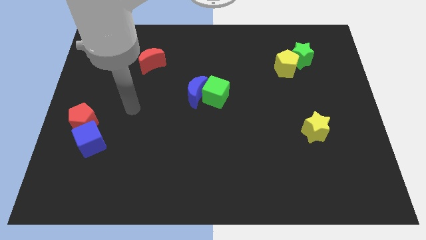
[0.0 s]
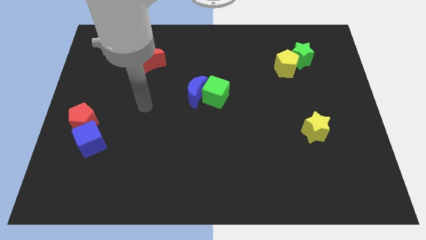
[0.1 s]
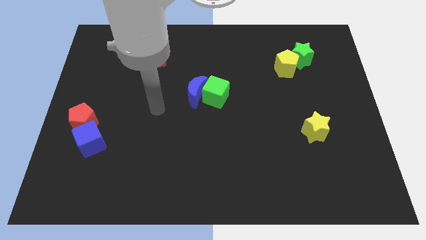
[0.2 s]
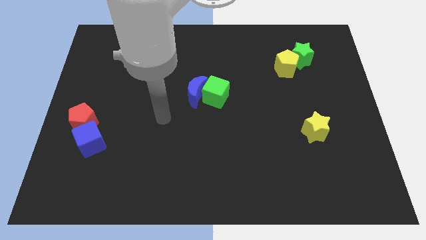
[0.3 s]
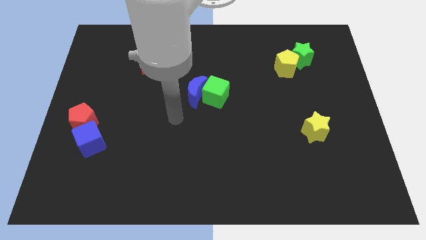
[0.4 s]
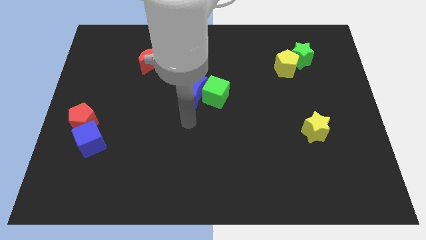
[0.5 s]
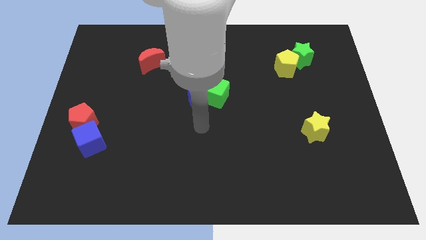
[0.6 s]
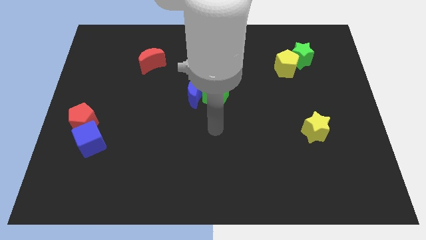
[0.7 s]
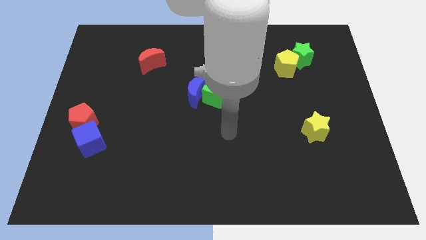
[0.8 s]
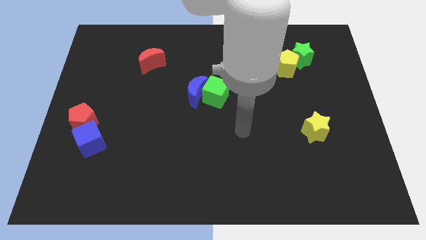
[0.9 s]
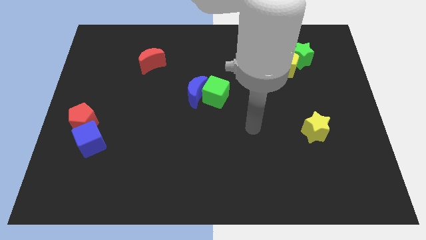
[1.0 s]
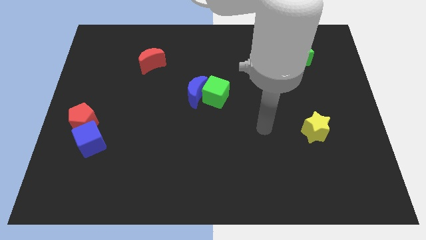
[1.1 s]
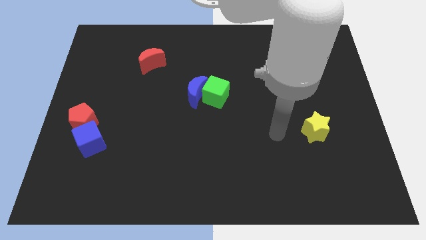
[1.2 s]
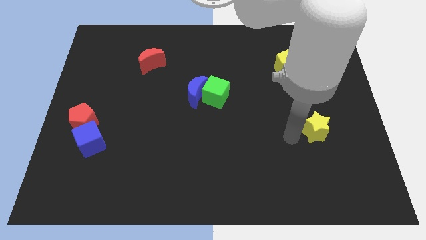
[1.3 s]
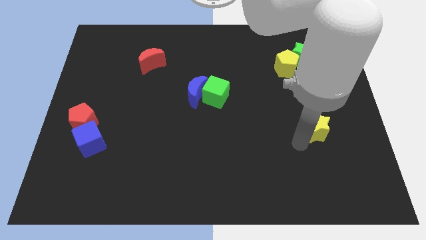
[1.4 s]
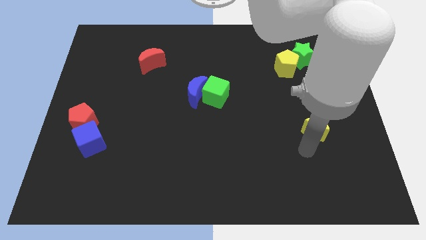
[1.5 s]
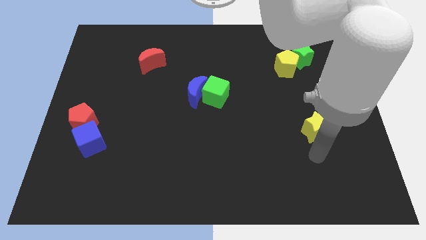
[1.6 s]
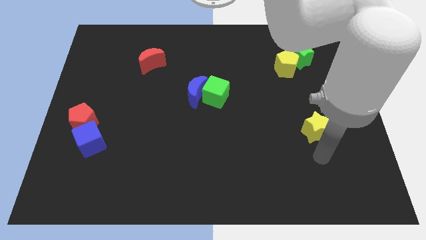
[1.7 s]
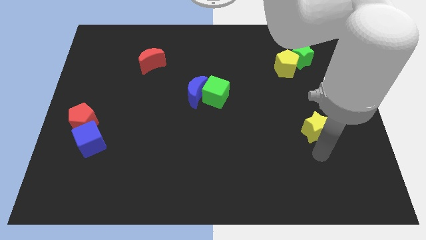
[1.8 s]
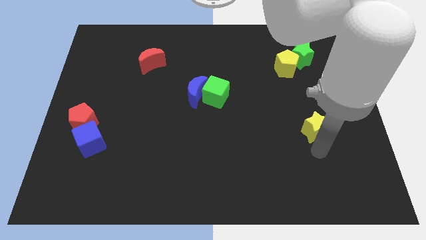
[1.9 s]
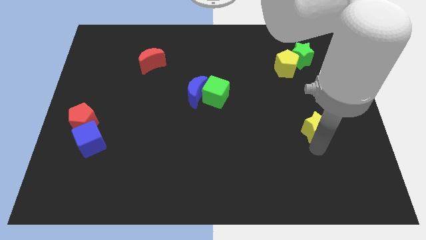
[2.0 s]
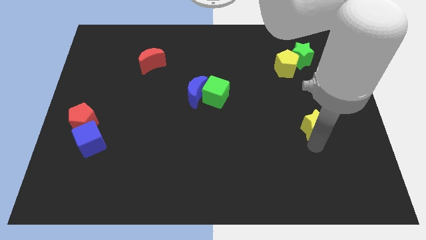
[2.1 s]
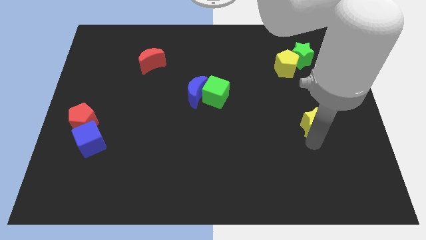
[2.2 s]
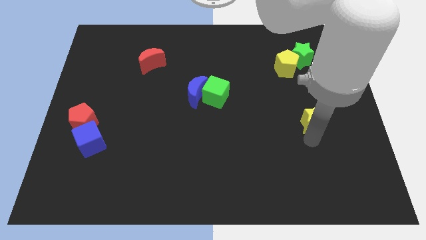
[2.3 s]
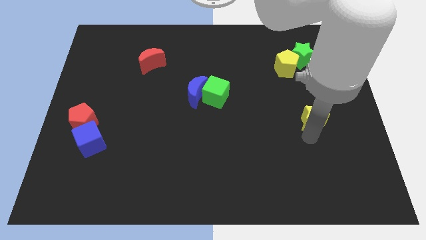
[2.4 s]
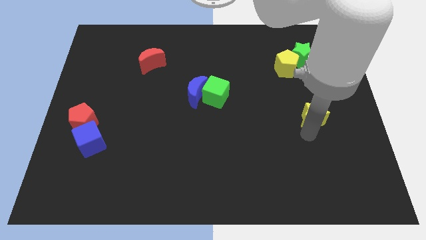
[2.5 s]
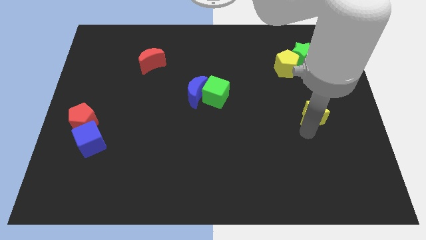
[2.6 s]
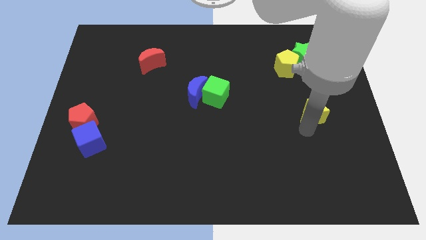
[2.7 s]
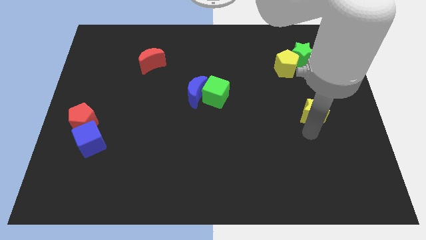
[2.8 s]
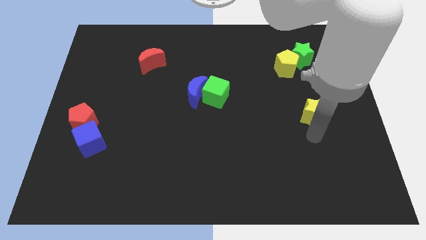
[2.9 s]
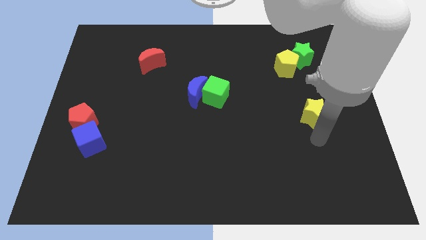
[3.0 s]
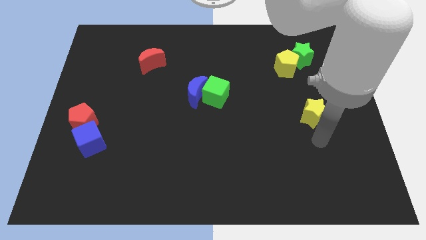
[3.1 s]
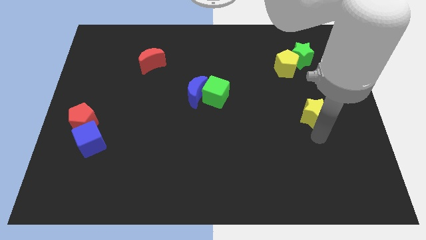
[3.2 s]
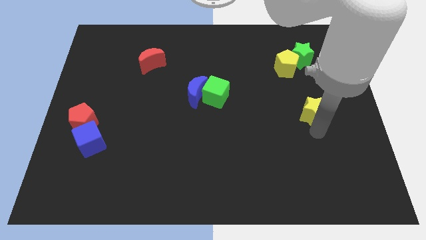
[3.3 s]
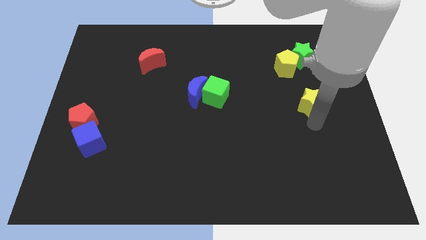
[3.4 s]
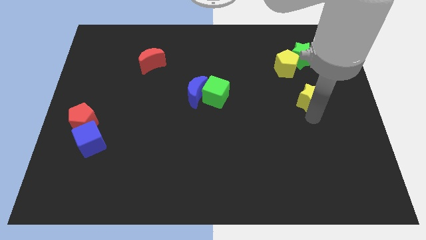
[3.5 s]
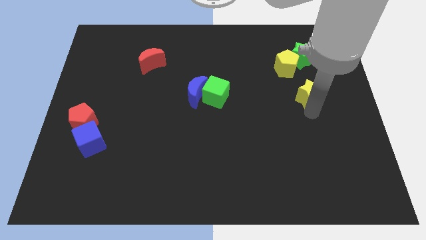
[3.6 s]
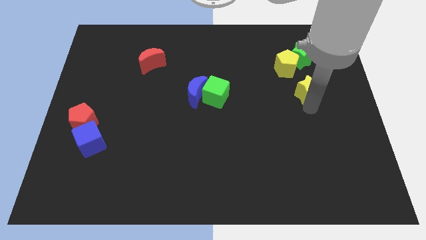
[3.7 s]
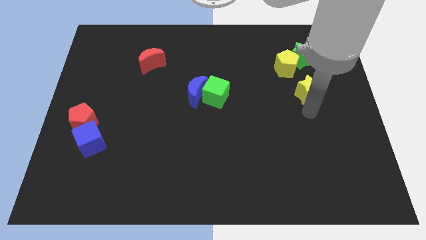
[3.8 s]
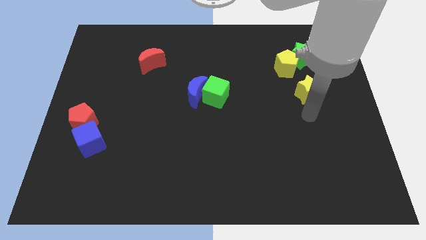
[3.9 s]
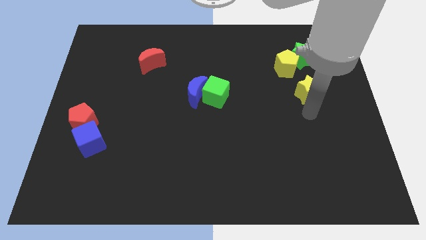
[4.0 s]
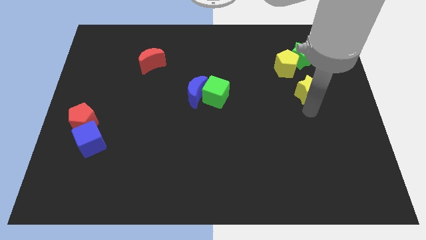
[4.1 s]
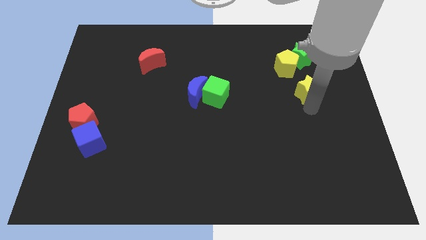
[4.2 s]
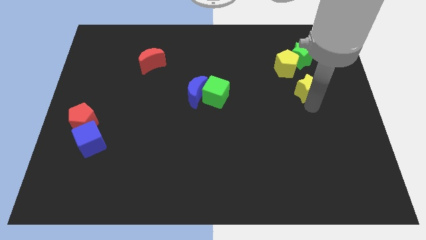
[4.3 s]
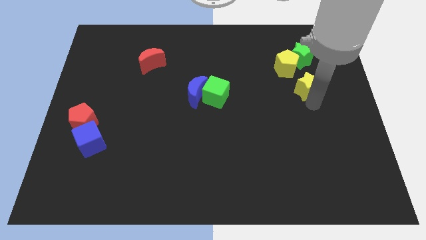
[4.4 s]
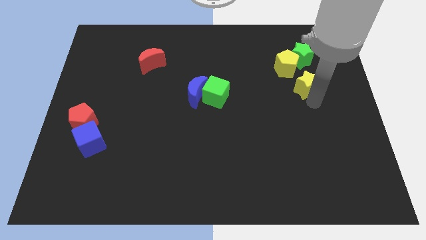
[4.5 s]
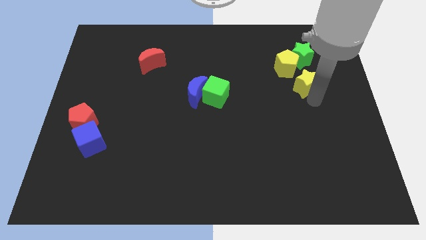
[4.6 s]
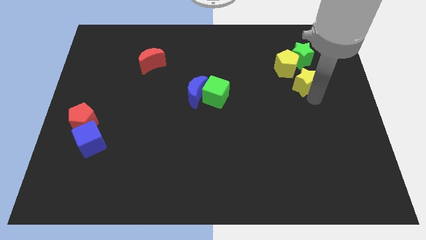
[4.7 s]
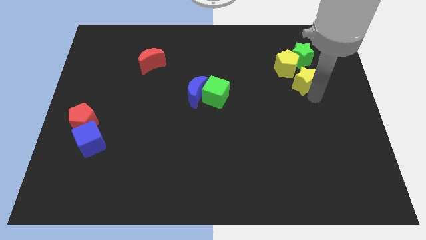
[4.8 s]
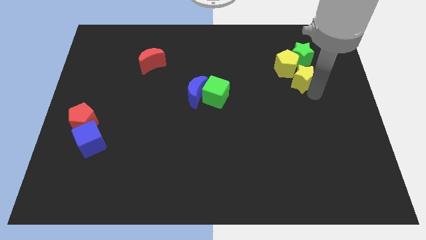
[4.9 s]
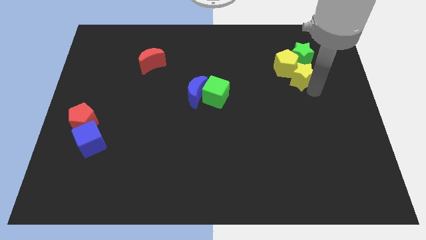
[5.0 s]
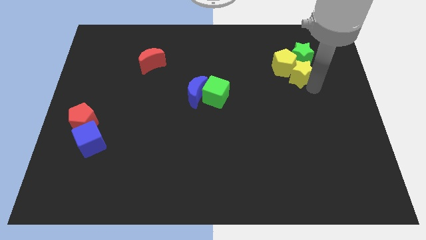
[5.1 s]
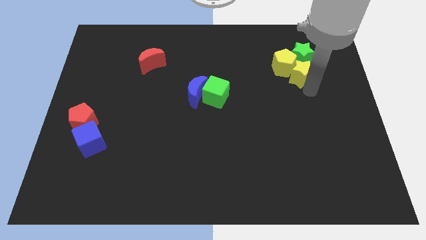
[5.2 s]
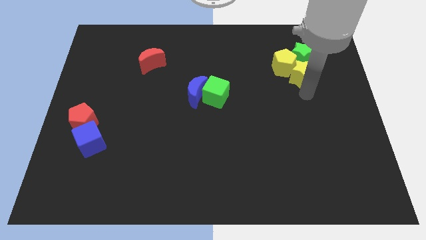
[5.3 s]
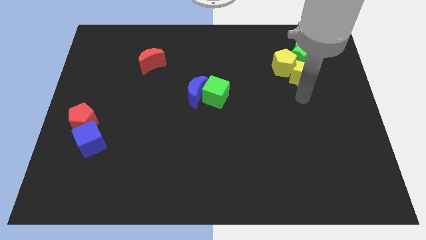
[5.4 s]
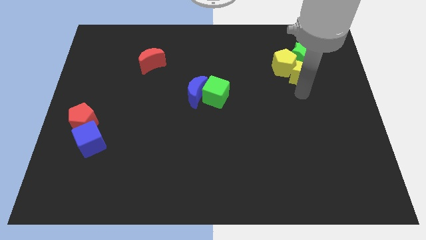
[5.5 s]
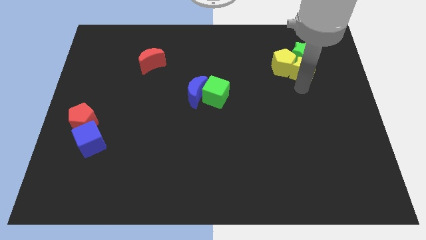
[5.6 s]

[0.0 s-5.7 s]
push the yellow star next to the green star

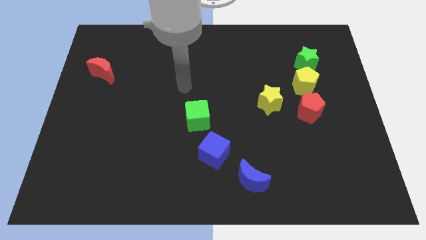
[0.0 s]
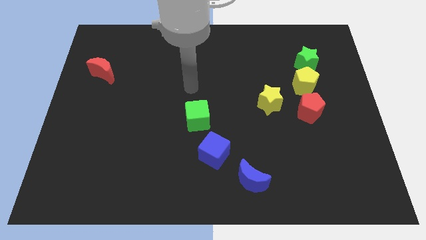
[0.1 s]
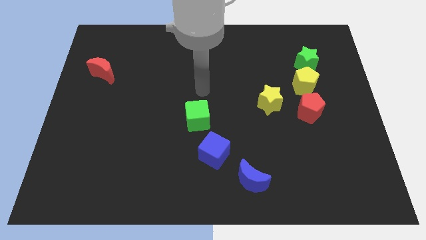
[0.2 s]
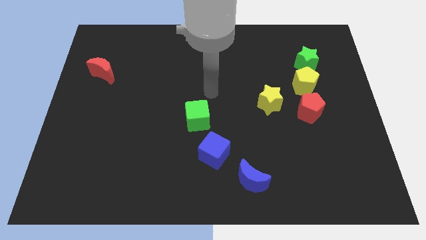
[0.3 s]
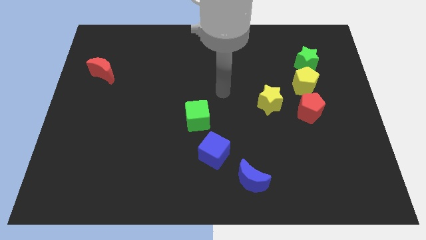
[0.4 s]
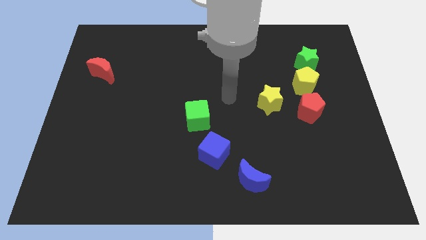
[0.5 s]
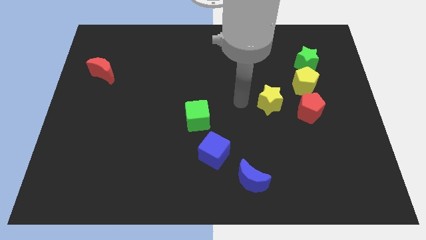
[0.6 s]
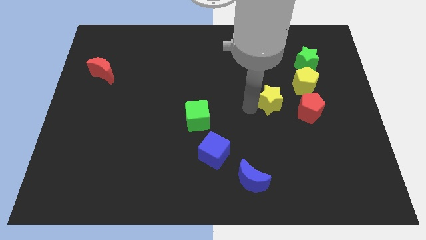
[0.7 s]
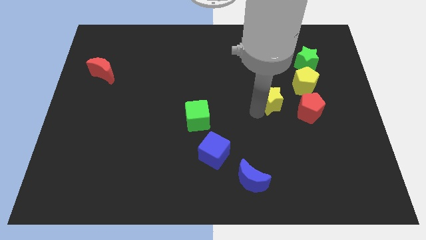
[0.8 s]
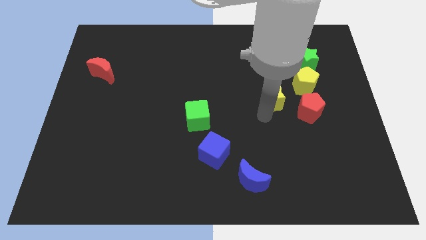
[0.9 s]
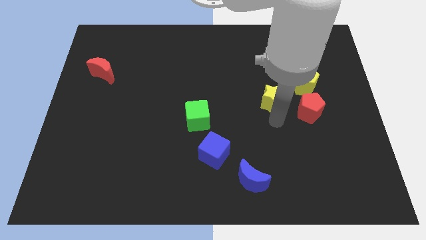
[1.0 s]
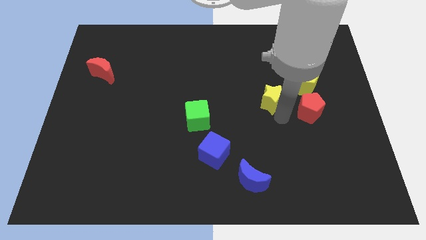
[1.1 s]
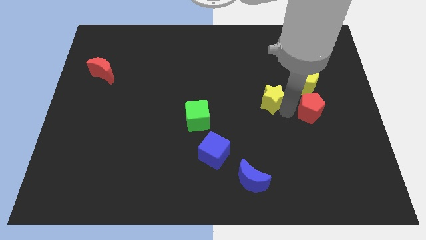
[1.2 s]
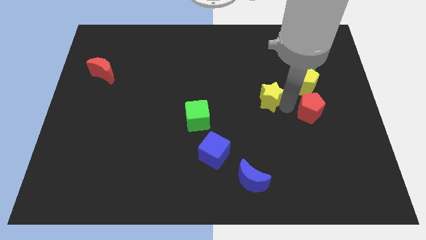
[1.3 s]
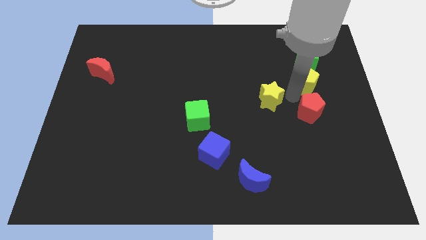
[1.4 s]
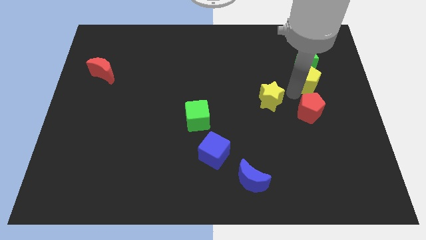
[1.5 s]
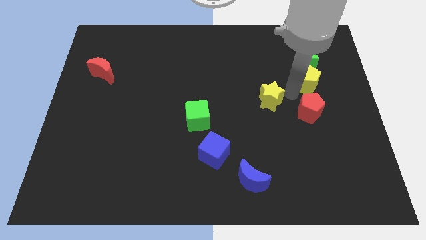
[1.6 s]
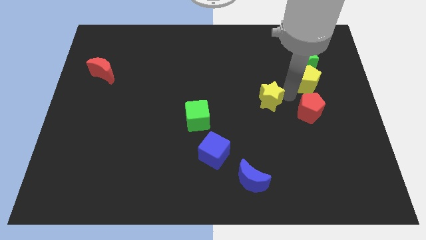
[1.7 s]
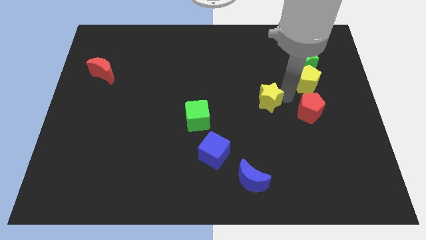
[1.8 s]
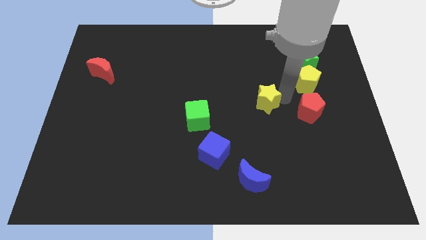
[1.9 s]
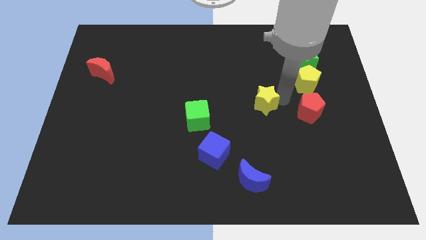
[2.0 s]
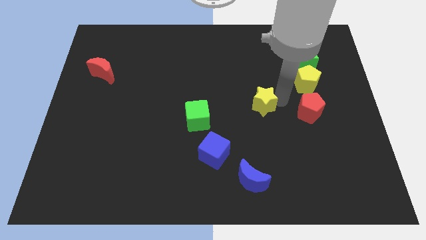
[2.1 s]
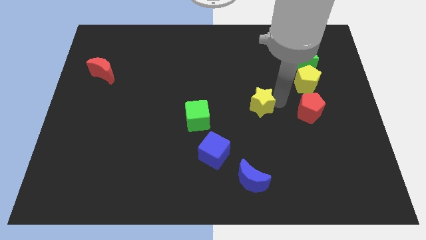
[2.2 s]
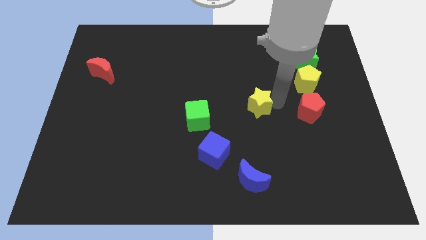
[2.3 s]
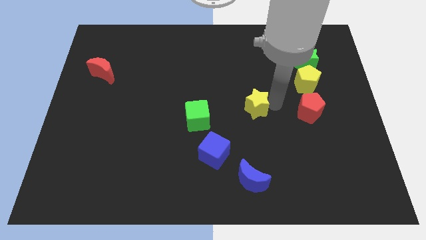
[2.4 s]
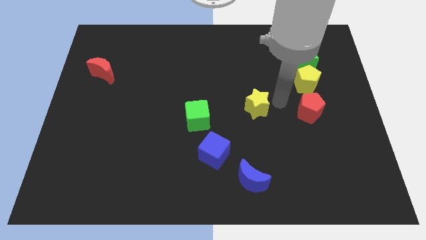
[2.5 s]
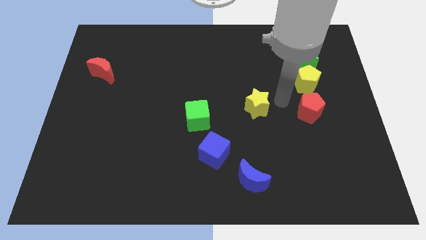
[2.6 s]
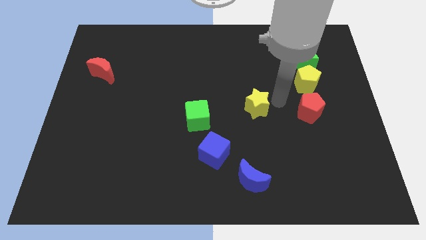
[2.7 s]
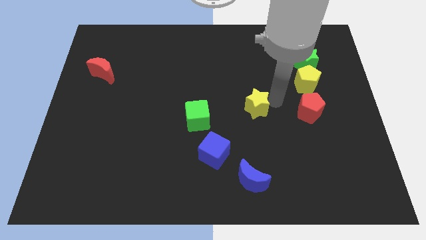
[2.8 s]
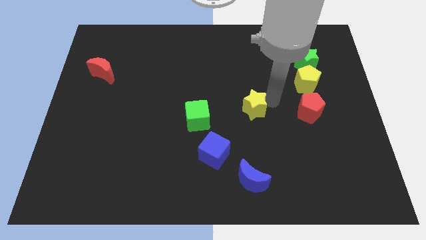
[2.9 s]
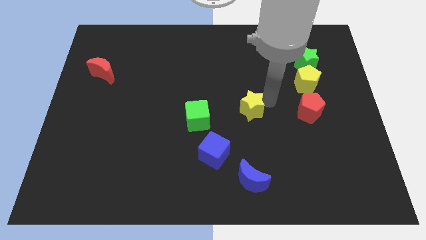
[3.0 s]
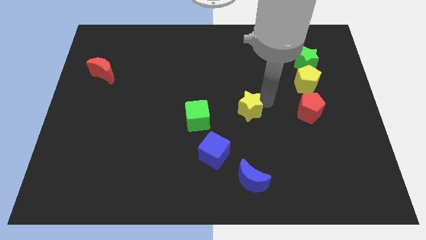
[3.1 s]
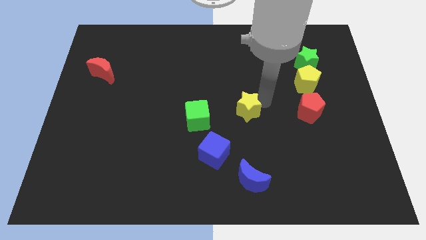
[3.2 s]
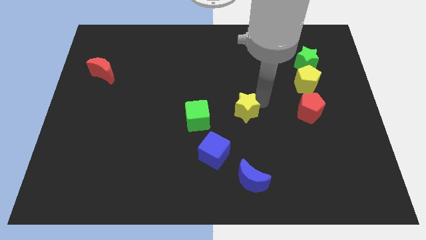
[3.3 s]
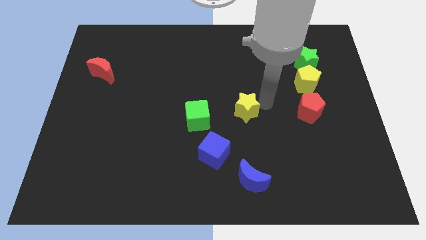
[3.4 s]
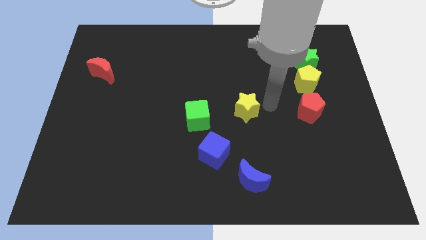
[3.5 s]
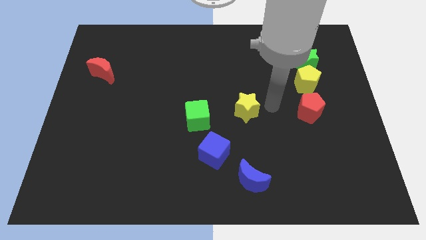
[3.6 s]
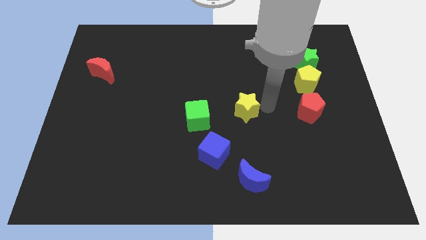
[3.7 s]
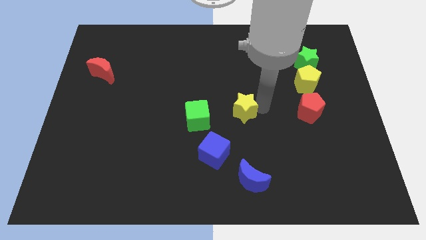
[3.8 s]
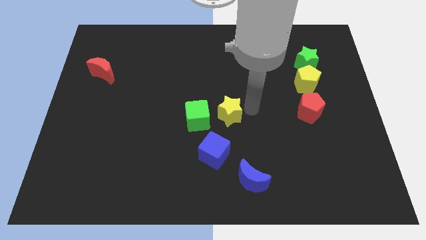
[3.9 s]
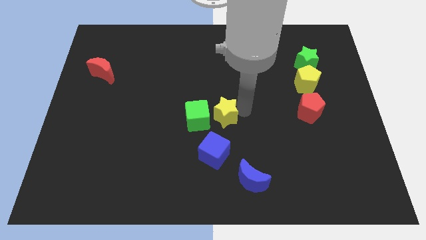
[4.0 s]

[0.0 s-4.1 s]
put the yellow star towards the green cube
